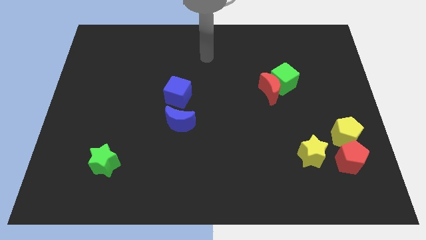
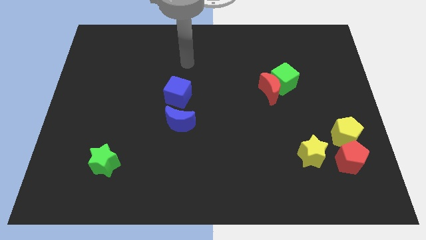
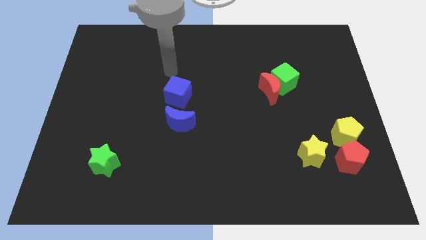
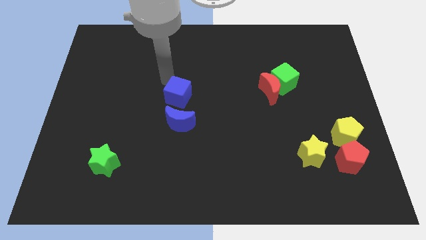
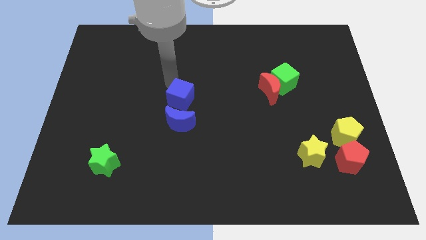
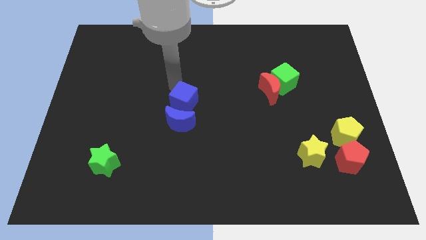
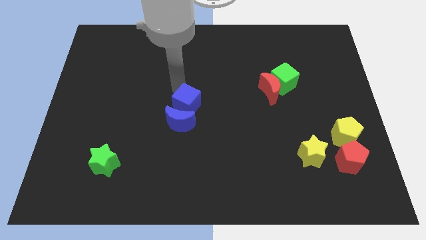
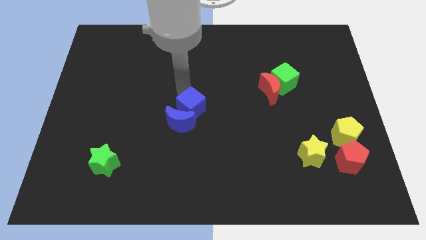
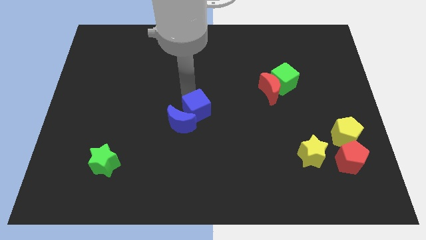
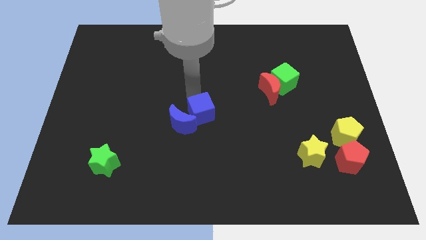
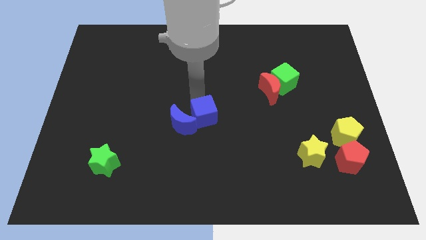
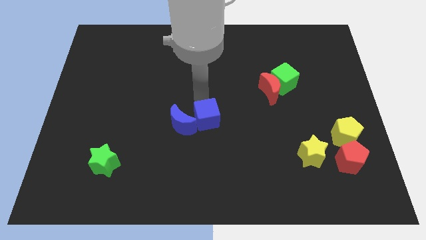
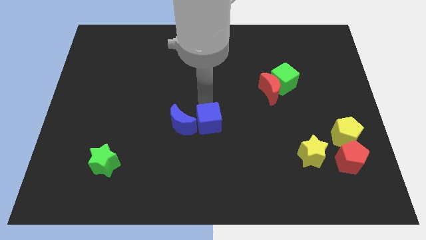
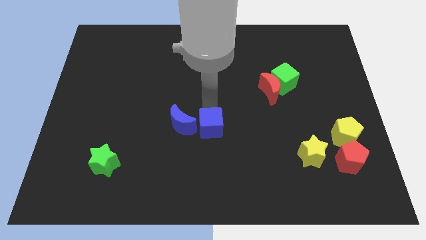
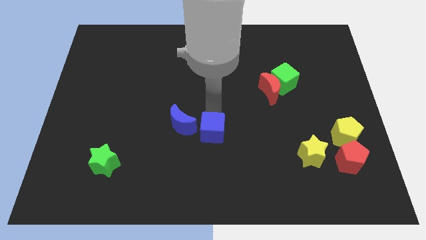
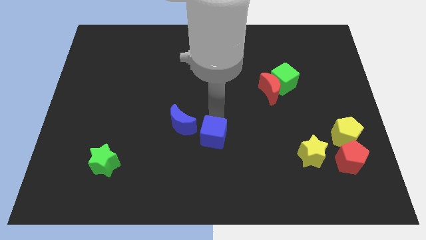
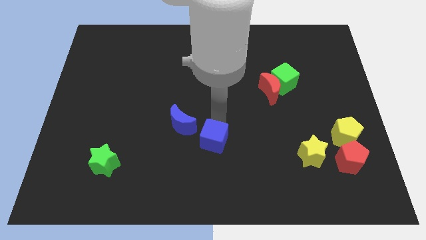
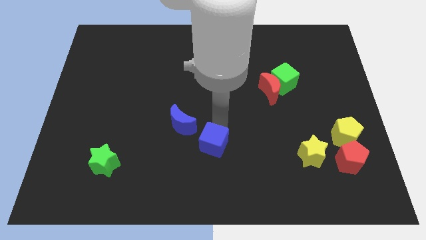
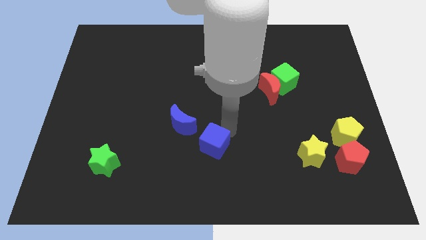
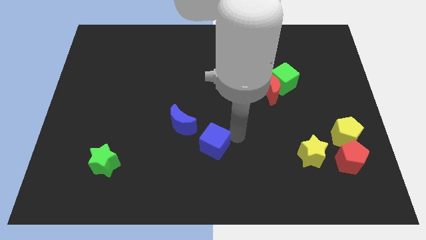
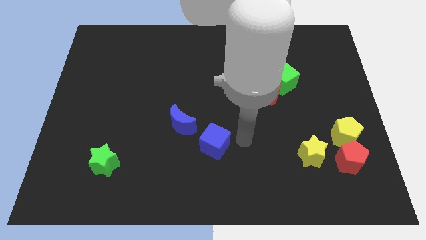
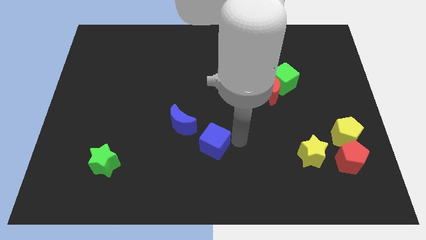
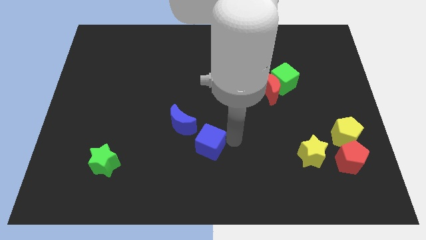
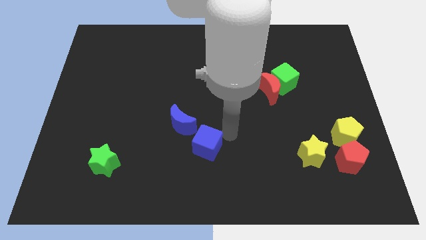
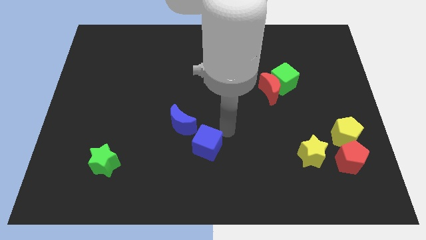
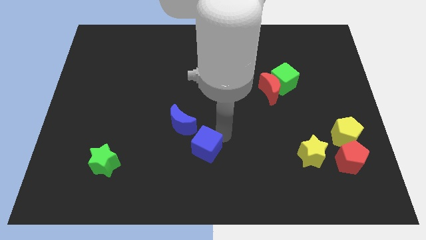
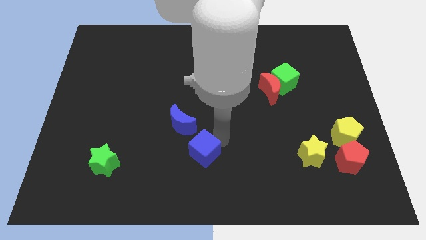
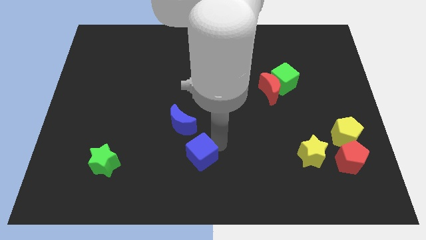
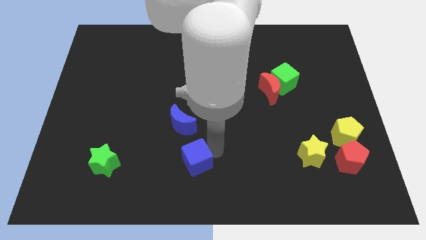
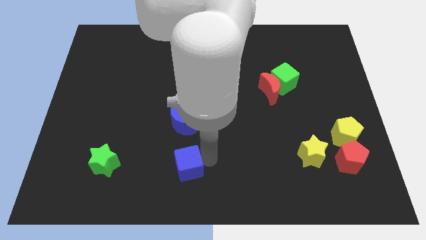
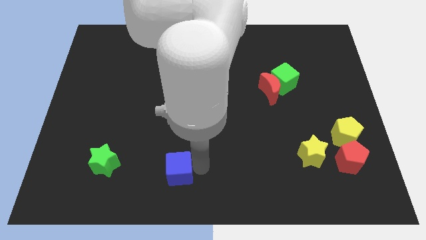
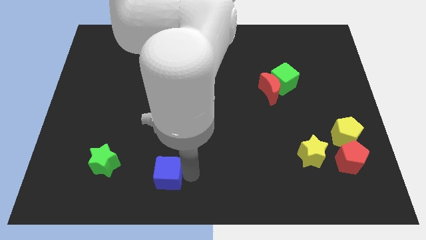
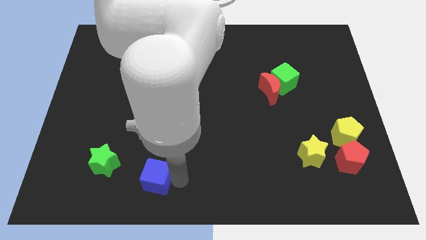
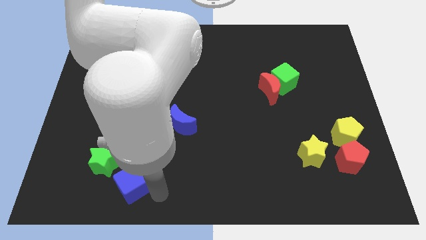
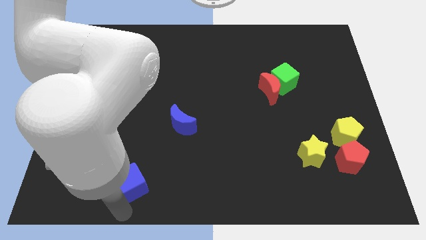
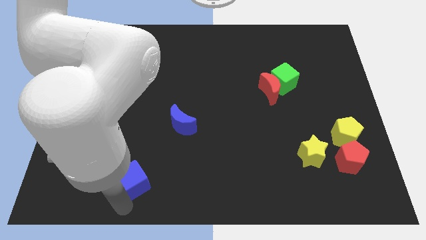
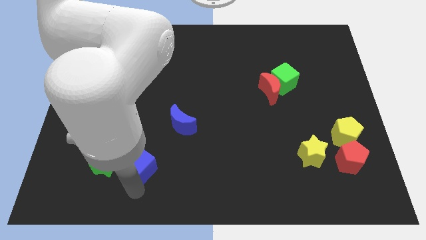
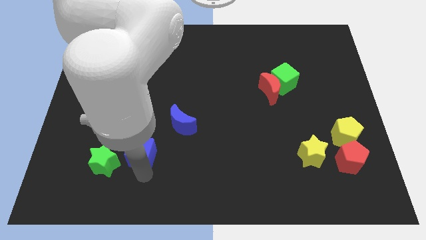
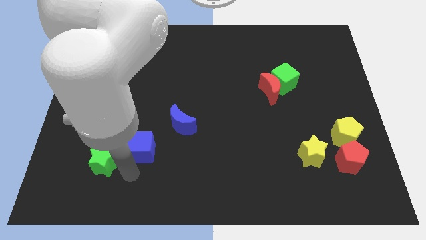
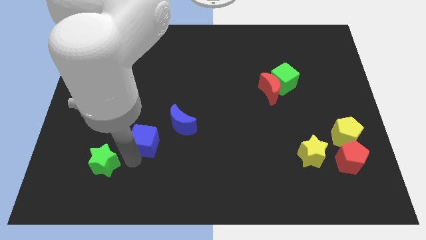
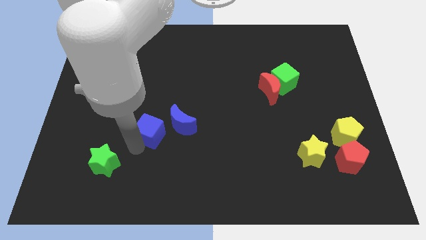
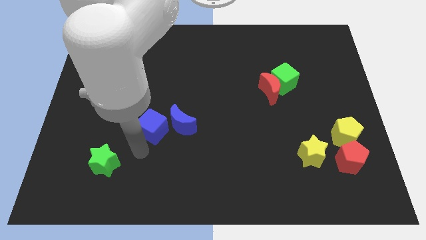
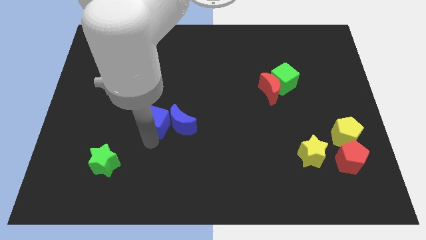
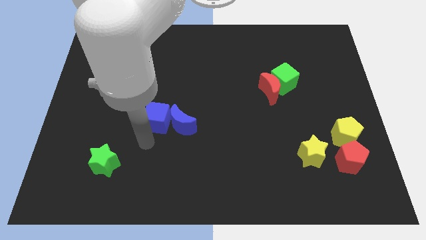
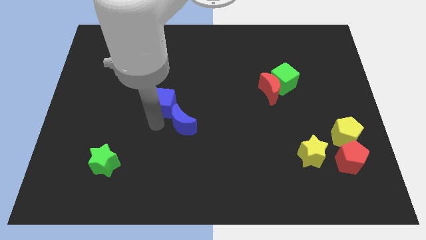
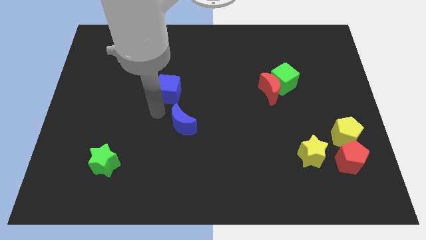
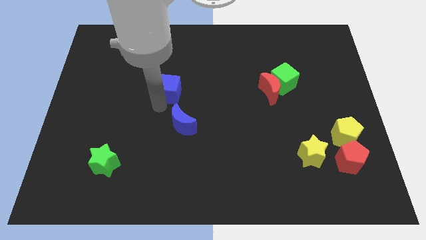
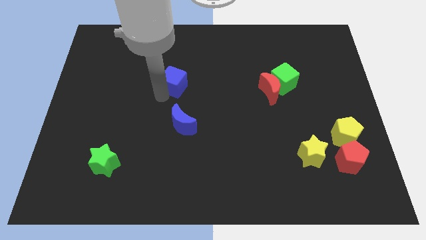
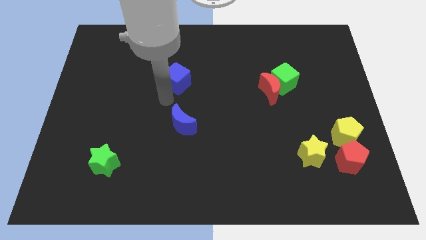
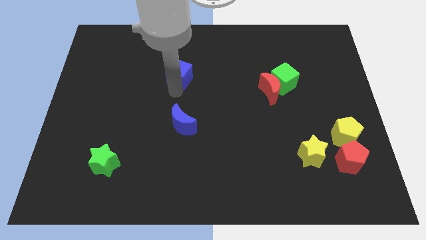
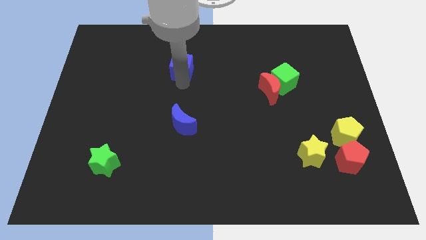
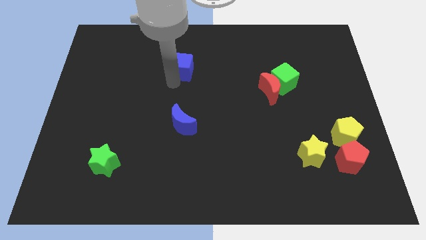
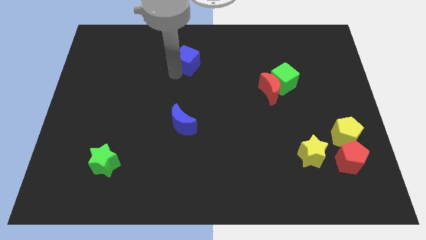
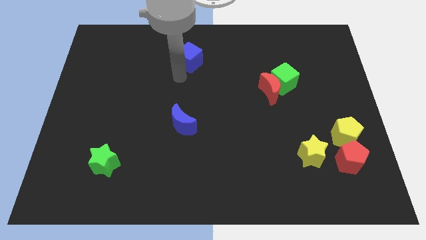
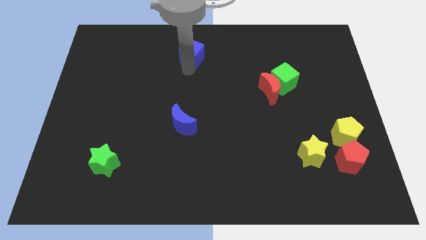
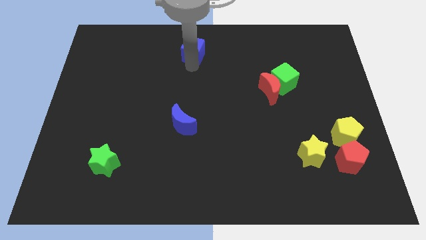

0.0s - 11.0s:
put the blue cube to the top

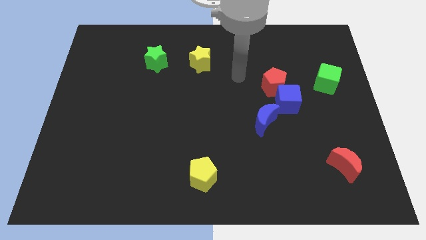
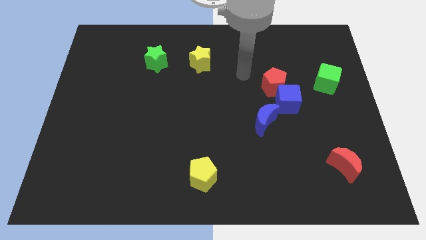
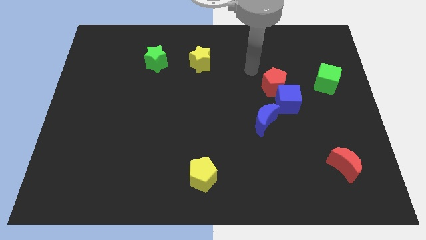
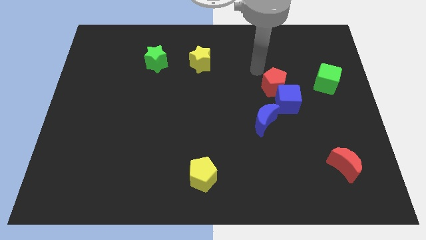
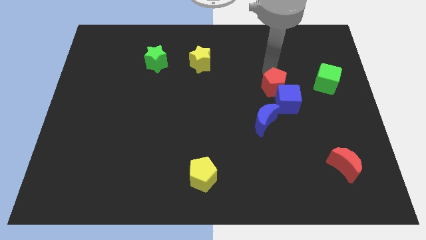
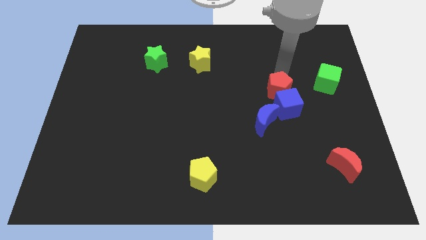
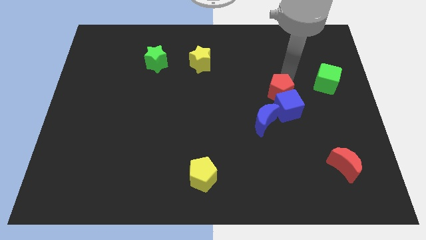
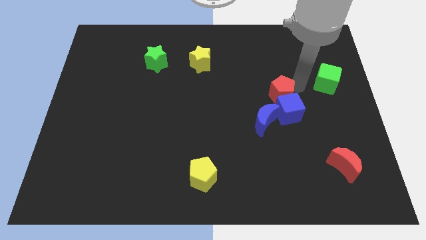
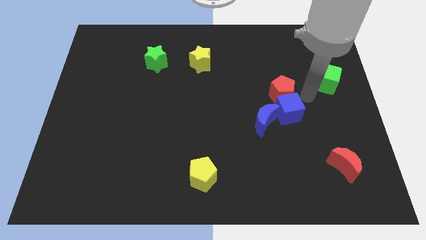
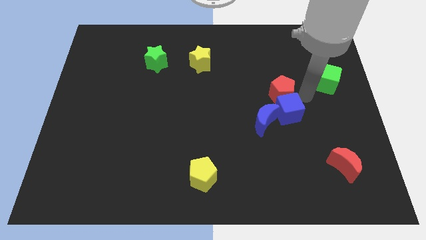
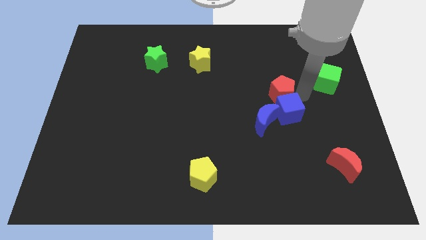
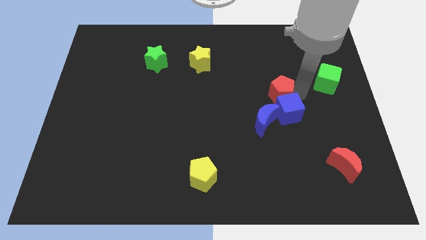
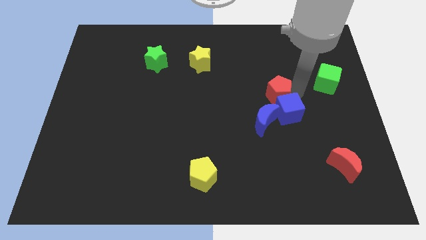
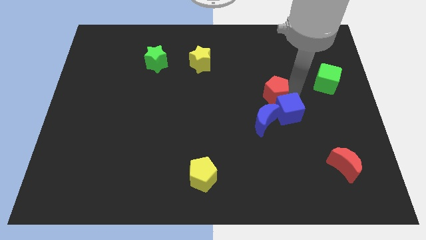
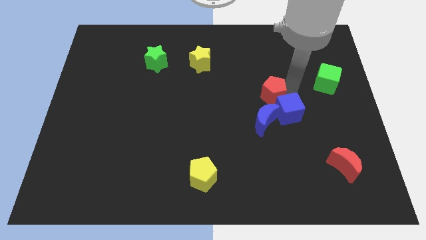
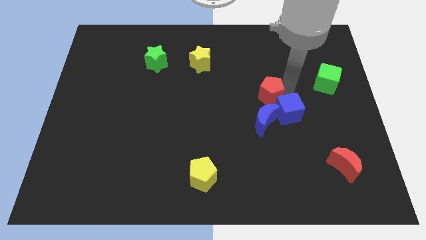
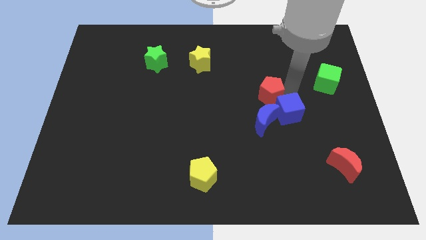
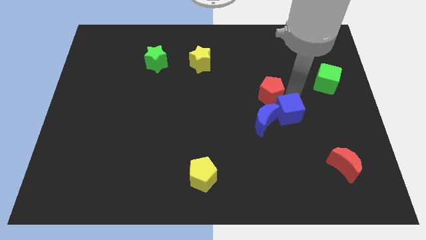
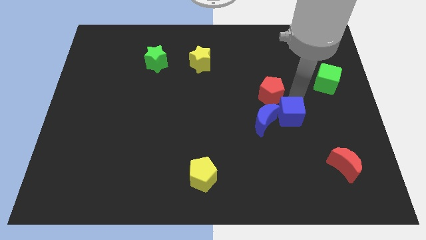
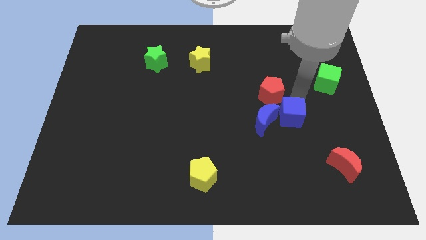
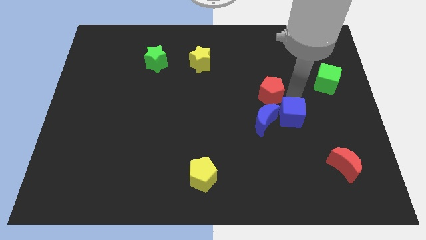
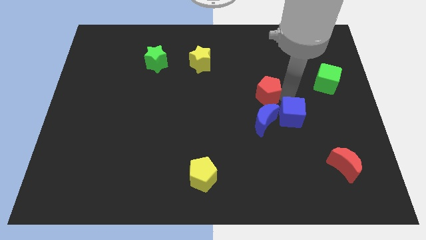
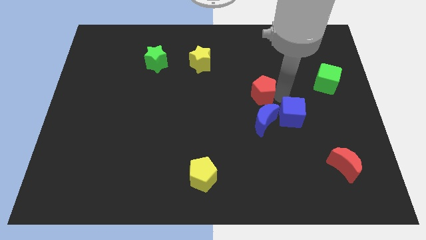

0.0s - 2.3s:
put the red pentagon to the middle

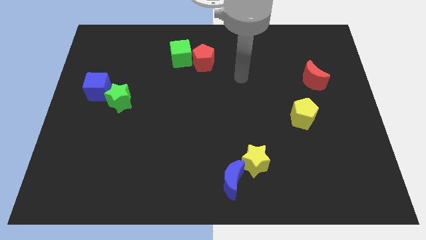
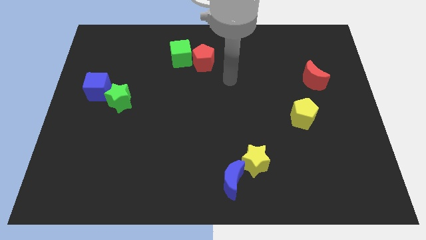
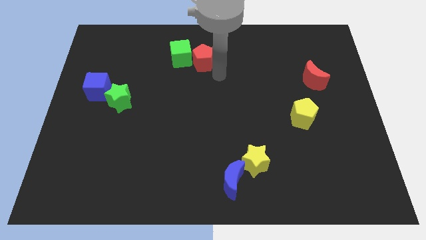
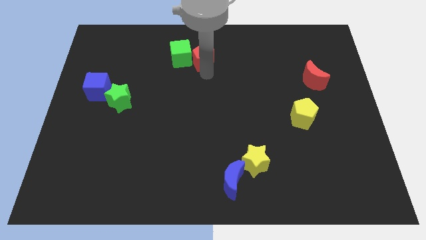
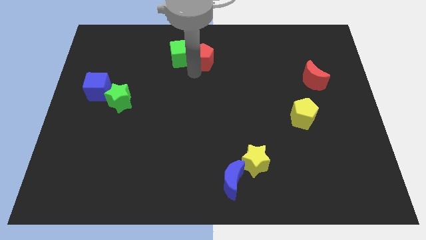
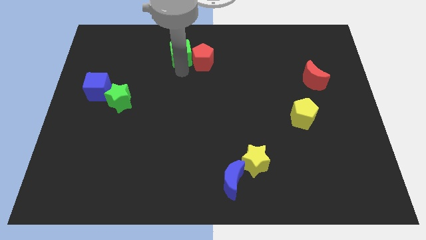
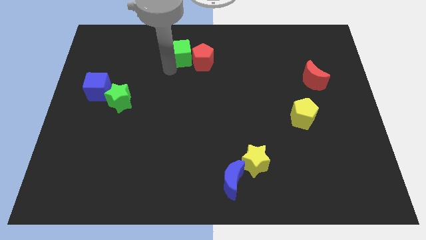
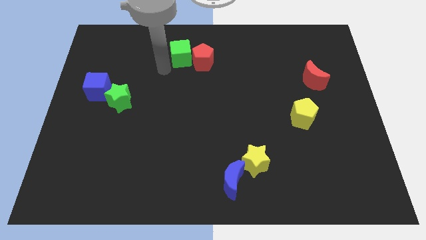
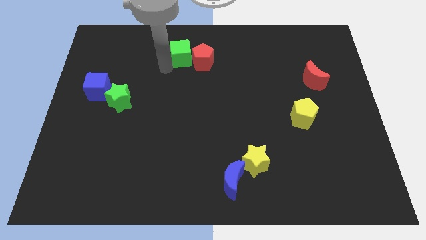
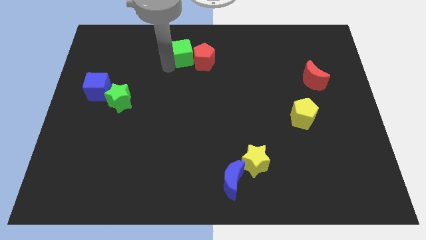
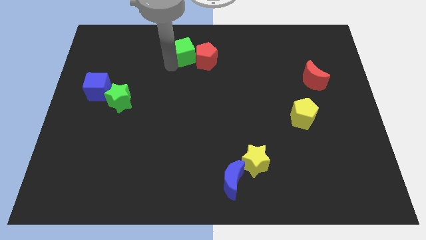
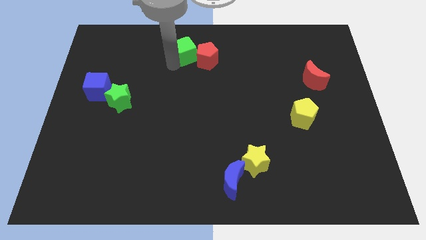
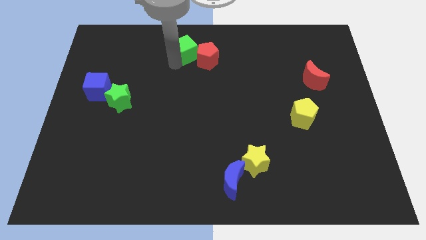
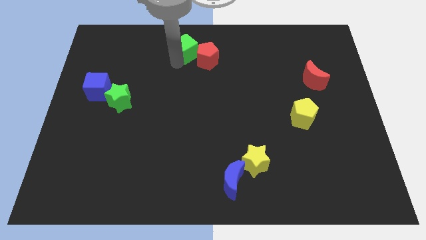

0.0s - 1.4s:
push the green cube to the top
